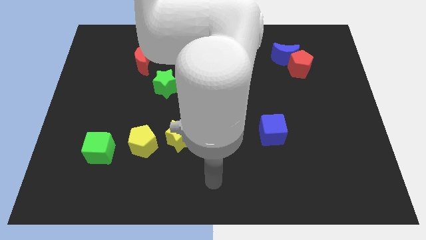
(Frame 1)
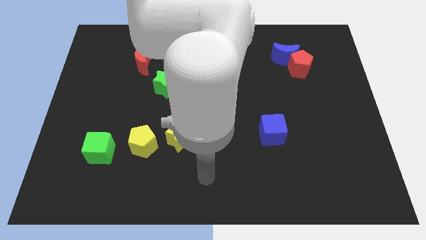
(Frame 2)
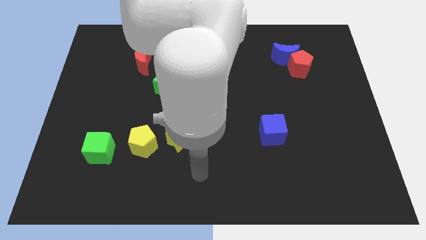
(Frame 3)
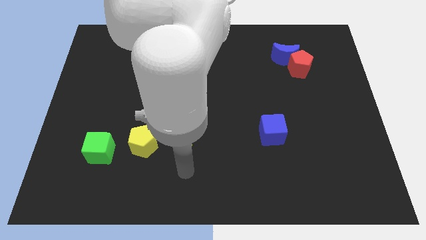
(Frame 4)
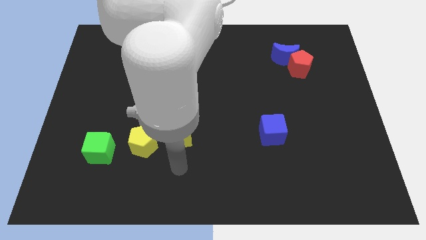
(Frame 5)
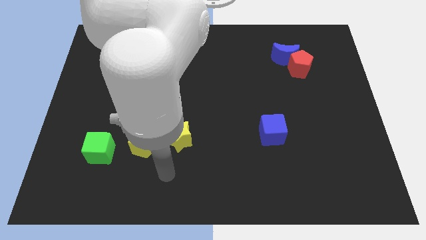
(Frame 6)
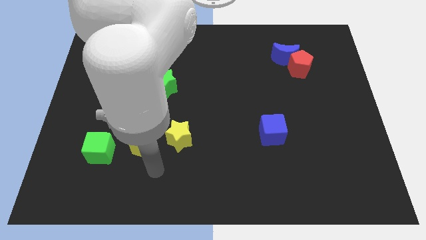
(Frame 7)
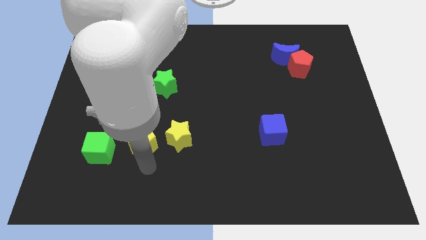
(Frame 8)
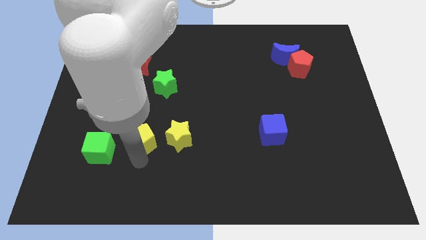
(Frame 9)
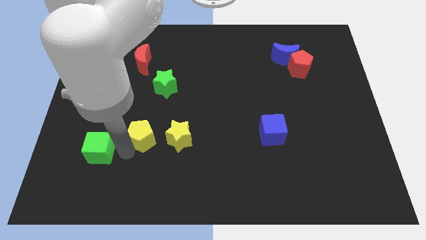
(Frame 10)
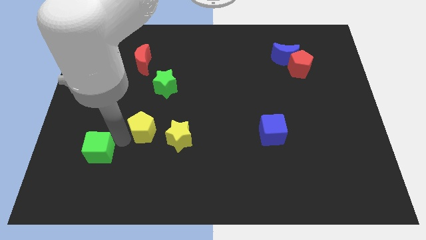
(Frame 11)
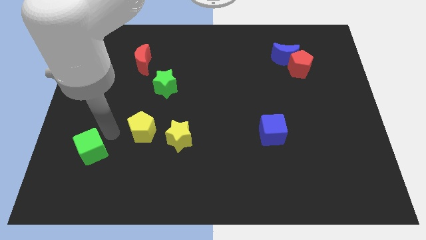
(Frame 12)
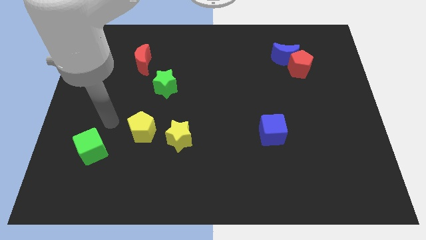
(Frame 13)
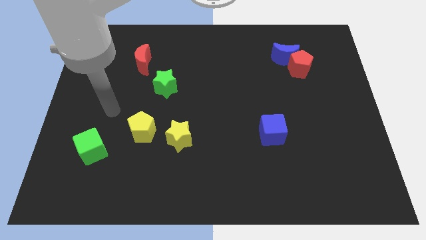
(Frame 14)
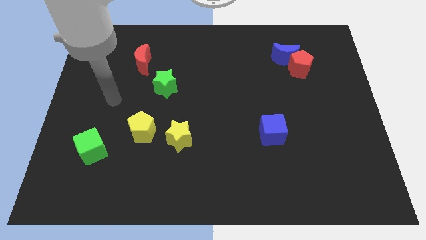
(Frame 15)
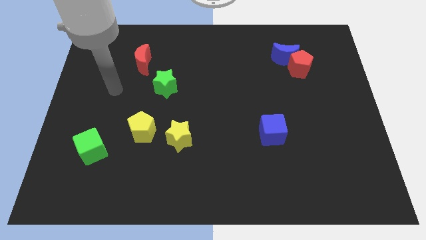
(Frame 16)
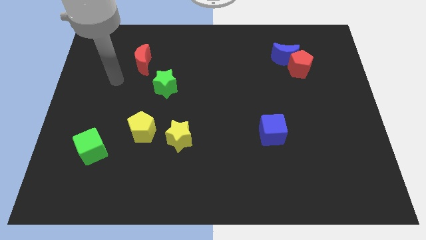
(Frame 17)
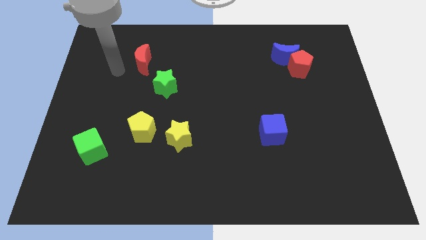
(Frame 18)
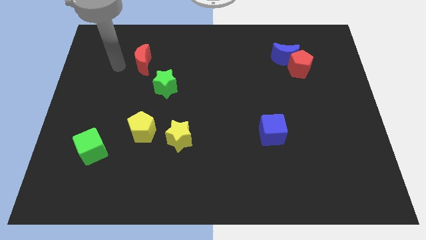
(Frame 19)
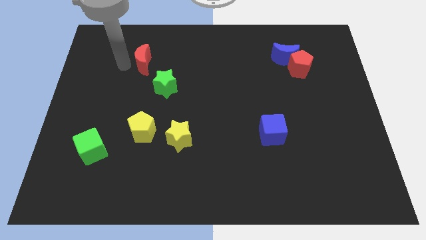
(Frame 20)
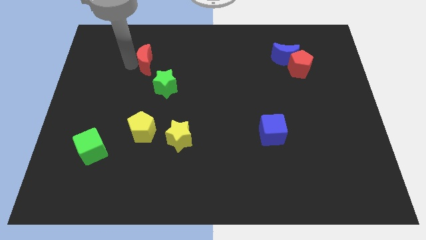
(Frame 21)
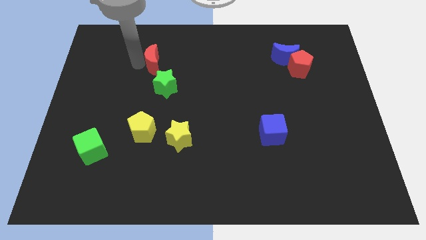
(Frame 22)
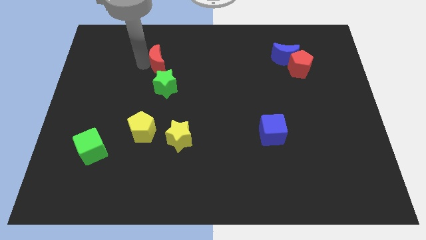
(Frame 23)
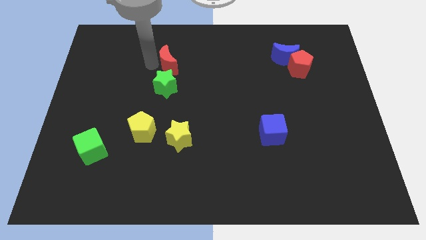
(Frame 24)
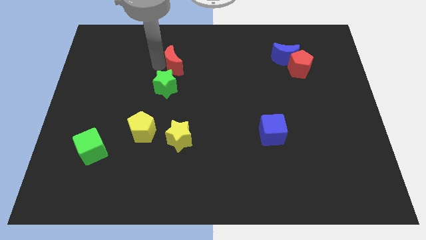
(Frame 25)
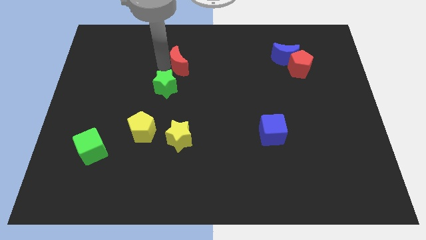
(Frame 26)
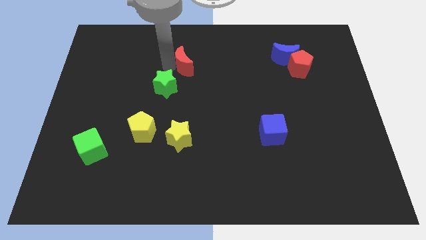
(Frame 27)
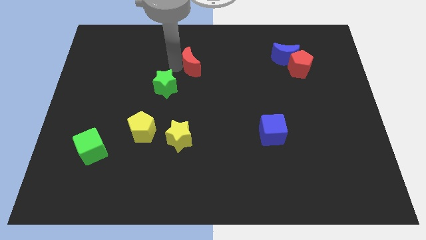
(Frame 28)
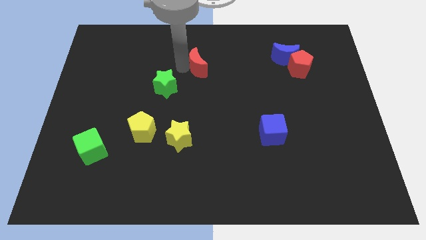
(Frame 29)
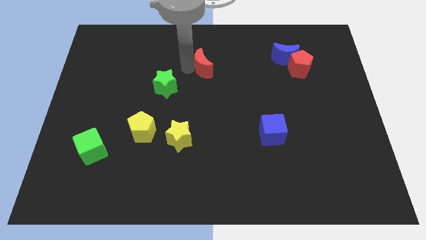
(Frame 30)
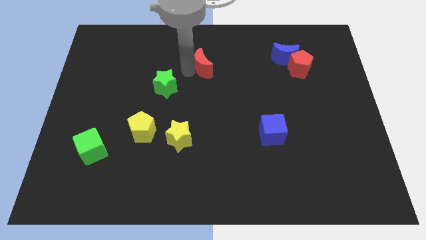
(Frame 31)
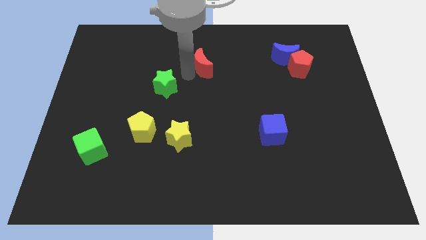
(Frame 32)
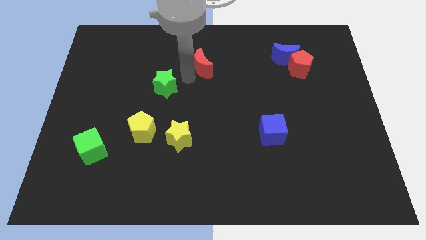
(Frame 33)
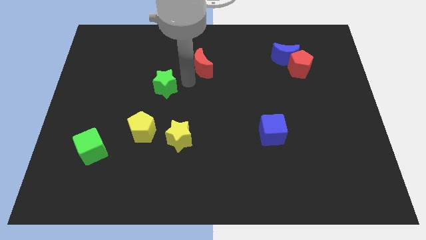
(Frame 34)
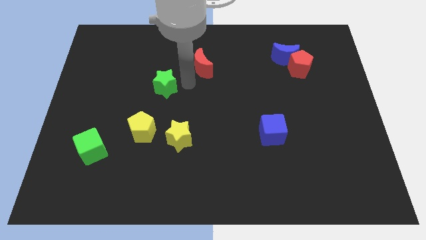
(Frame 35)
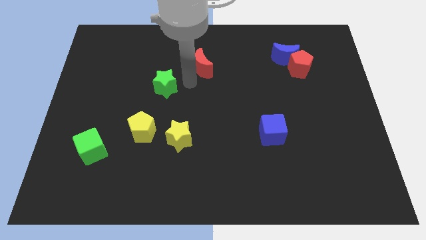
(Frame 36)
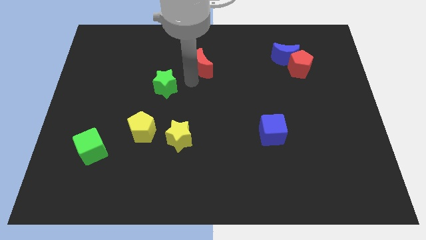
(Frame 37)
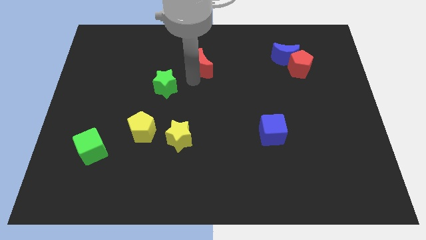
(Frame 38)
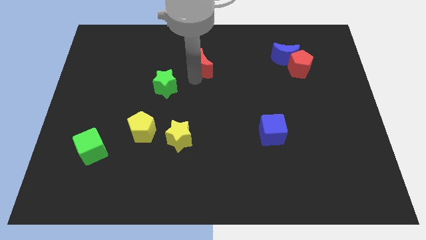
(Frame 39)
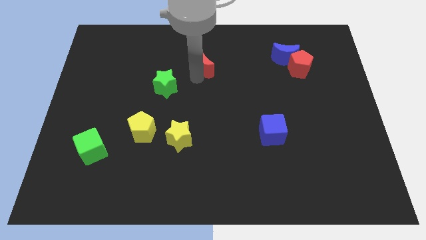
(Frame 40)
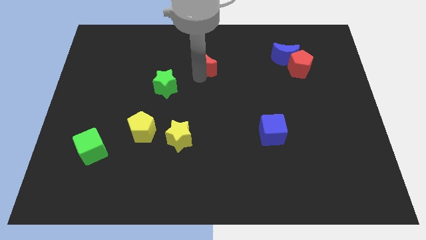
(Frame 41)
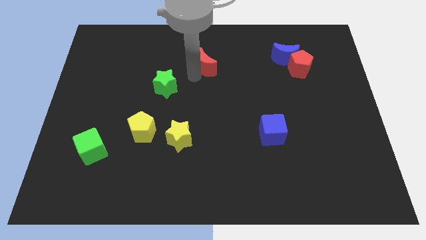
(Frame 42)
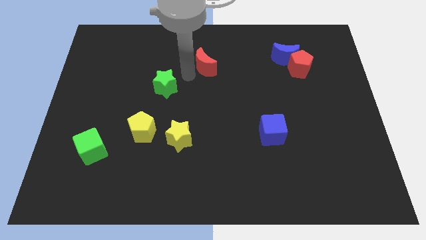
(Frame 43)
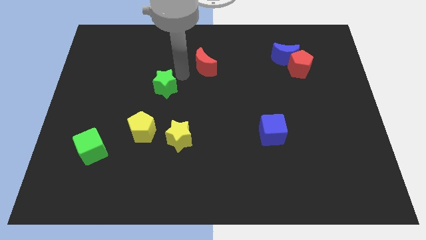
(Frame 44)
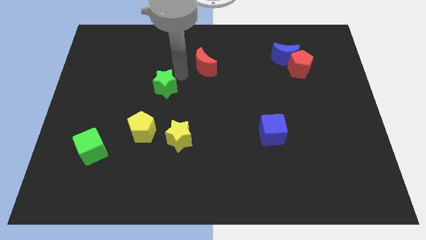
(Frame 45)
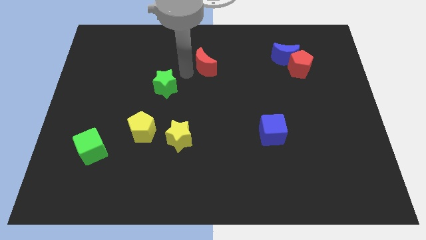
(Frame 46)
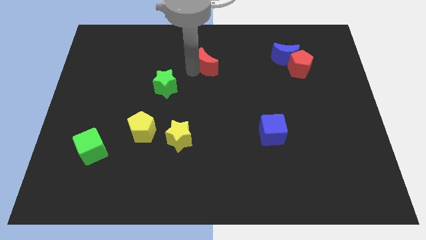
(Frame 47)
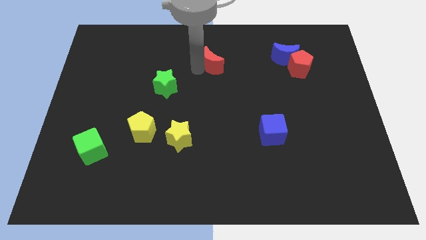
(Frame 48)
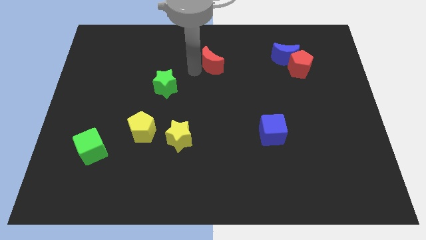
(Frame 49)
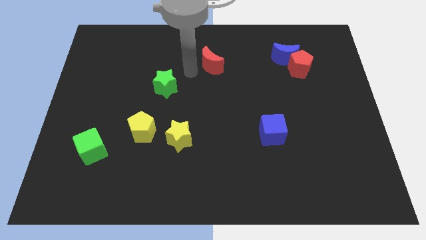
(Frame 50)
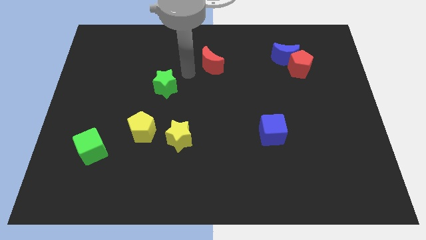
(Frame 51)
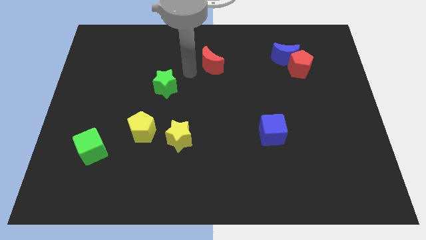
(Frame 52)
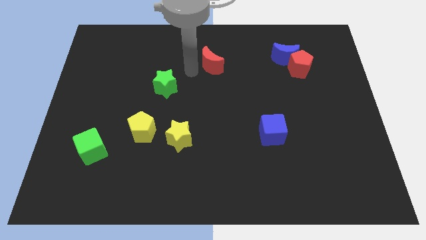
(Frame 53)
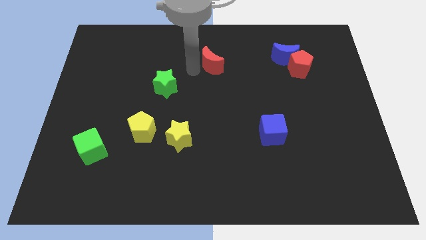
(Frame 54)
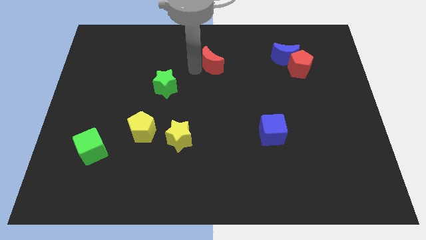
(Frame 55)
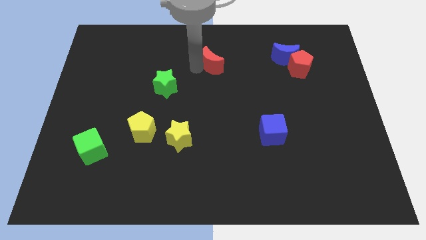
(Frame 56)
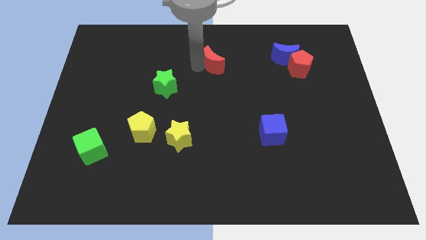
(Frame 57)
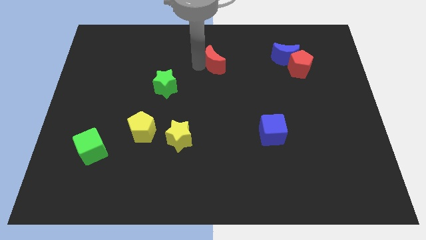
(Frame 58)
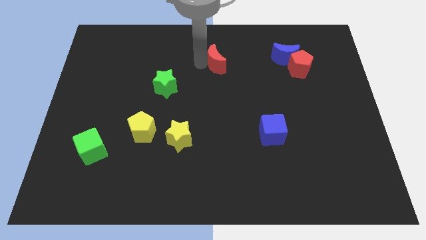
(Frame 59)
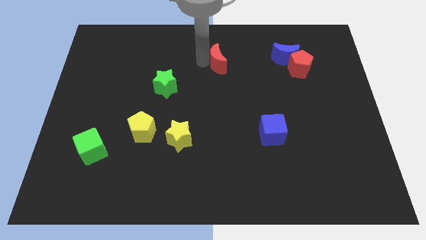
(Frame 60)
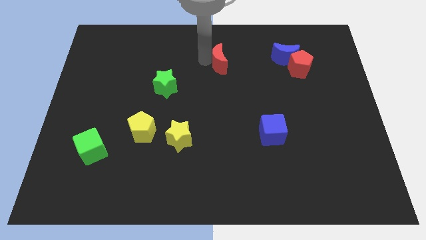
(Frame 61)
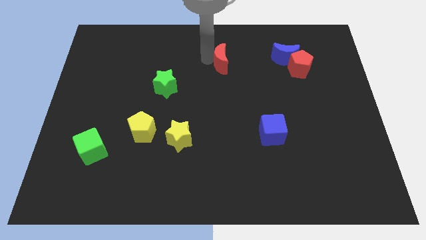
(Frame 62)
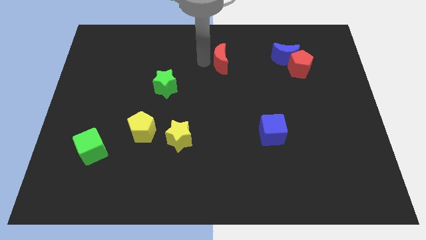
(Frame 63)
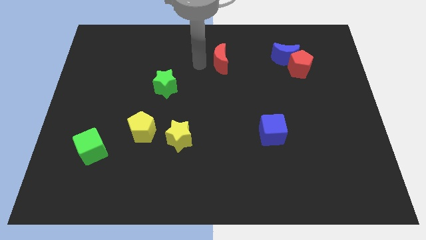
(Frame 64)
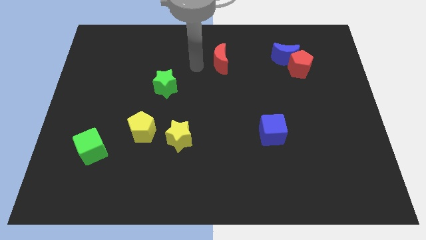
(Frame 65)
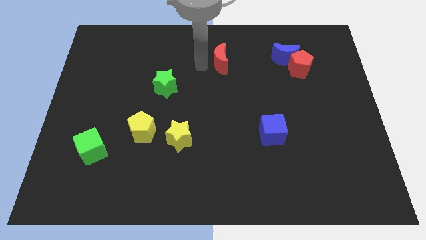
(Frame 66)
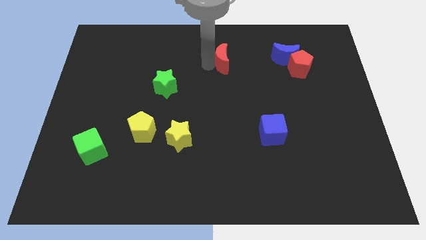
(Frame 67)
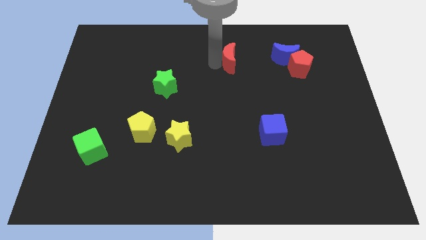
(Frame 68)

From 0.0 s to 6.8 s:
put the red moon to the left side of the blue moon

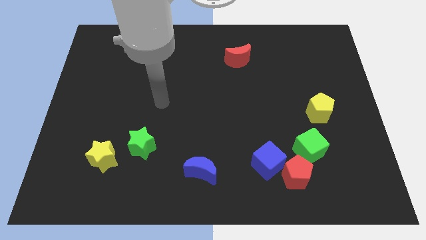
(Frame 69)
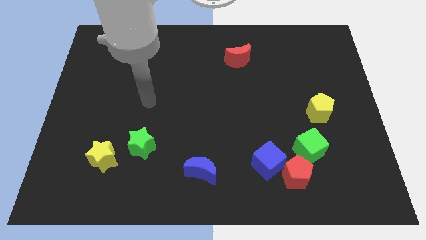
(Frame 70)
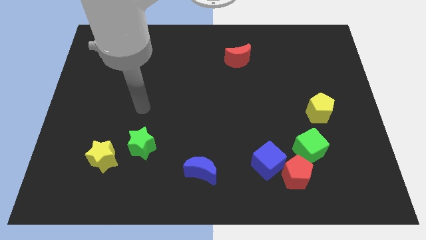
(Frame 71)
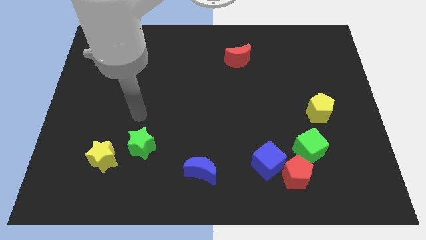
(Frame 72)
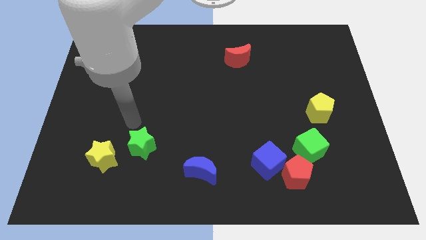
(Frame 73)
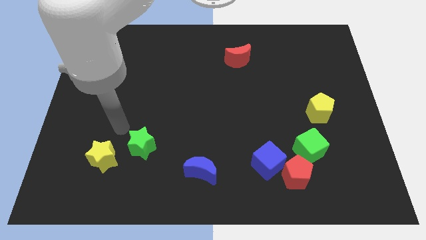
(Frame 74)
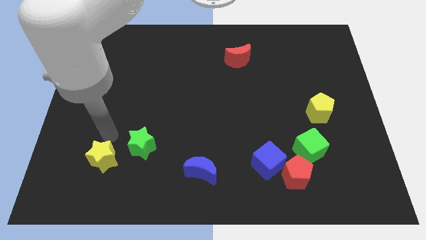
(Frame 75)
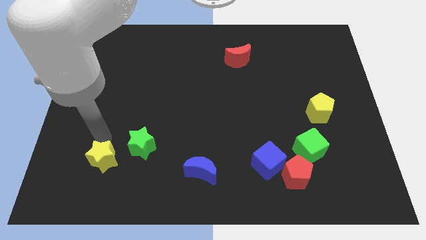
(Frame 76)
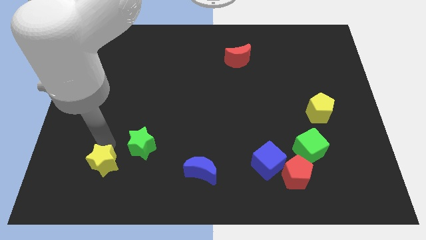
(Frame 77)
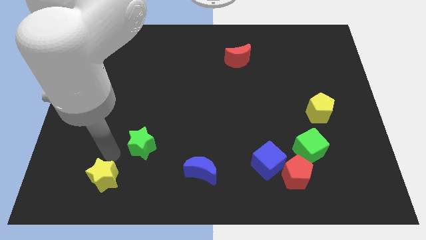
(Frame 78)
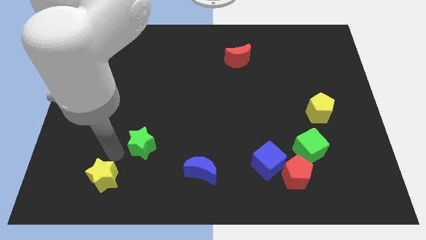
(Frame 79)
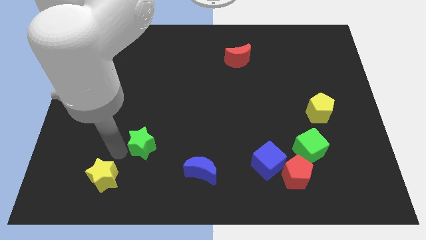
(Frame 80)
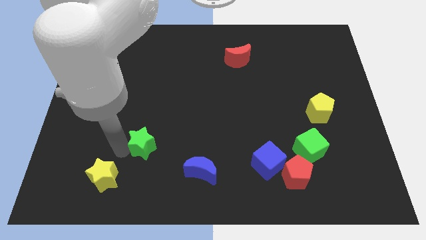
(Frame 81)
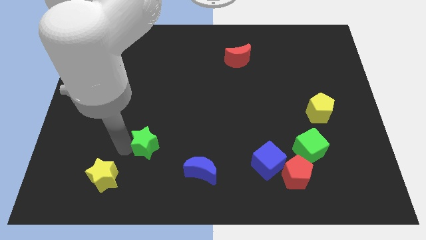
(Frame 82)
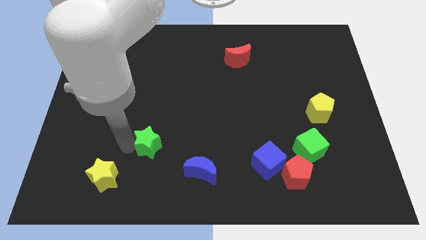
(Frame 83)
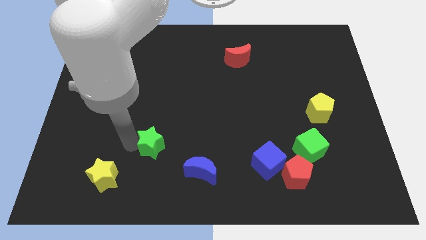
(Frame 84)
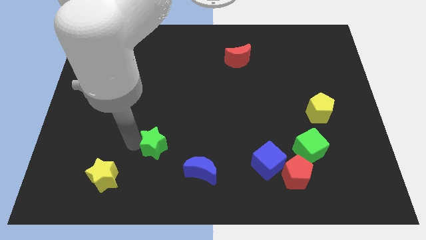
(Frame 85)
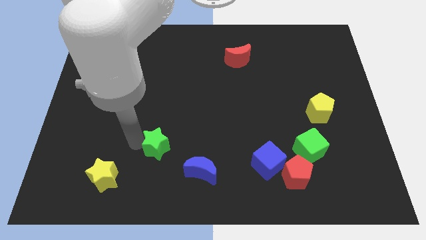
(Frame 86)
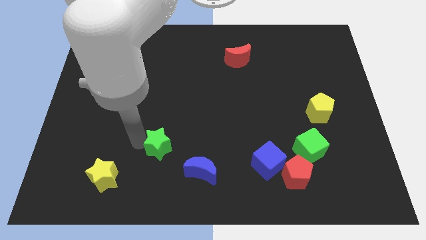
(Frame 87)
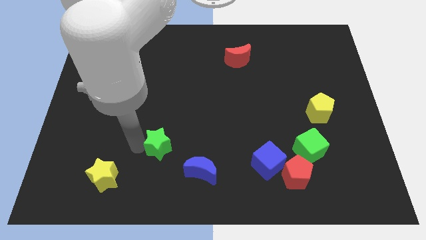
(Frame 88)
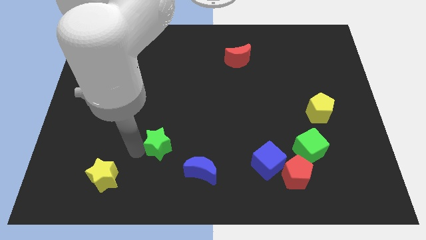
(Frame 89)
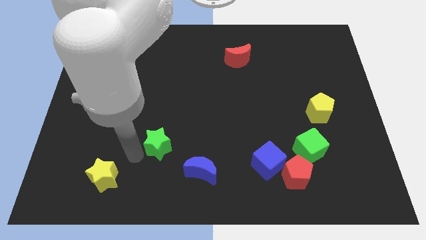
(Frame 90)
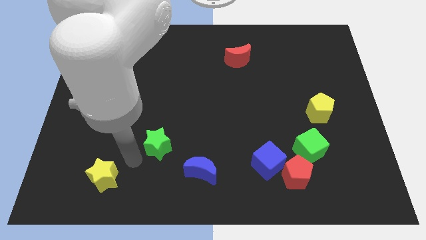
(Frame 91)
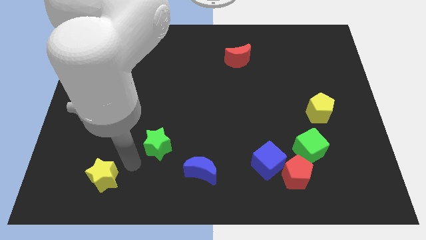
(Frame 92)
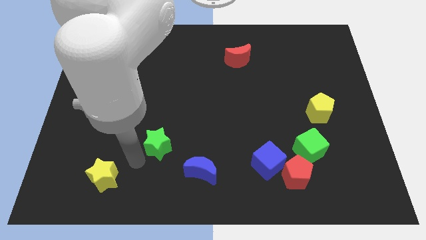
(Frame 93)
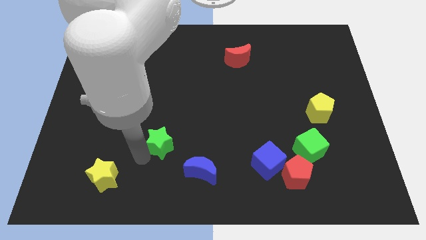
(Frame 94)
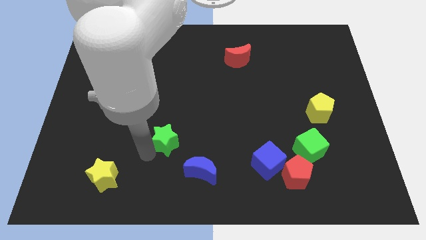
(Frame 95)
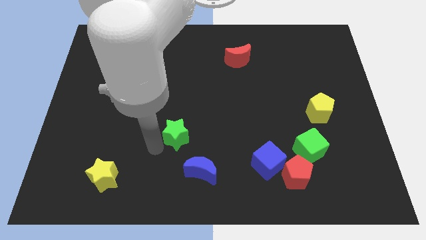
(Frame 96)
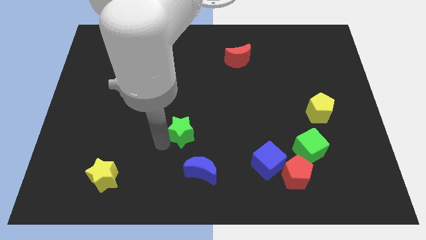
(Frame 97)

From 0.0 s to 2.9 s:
slide the green star to the top side of the blue moon
